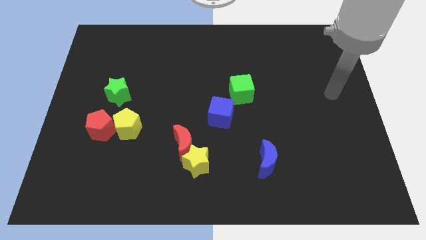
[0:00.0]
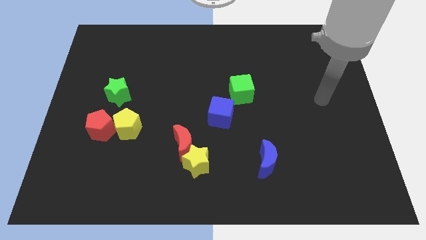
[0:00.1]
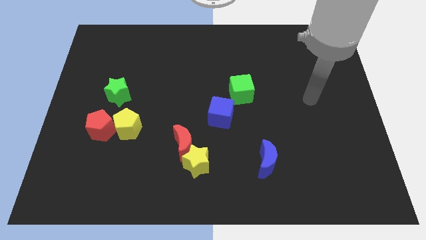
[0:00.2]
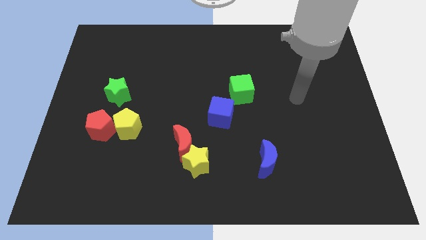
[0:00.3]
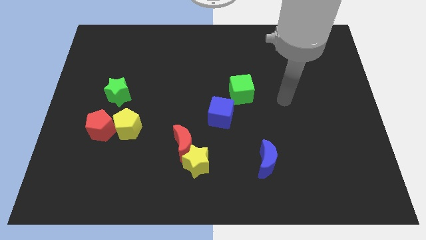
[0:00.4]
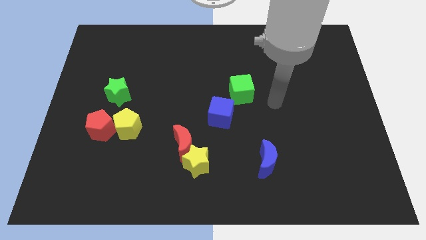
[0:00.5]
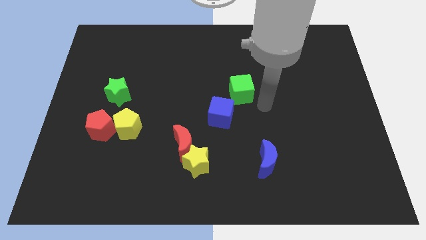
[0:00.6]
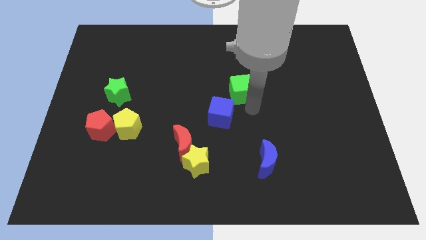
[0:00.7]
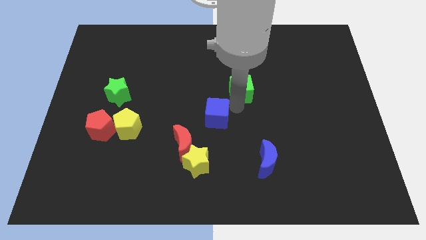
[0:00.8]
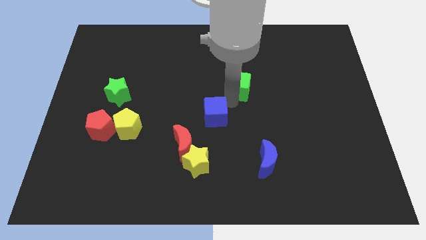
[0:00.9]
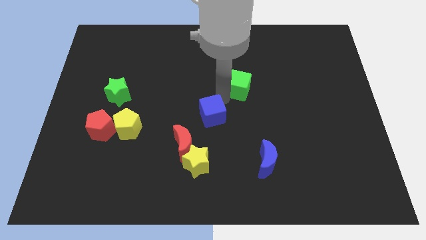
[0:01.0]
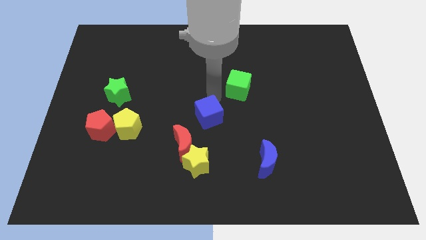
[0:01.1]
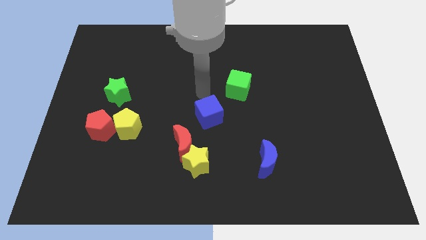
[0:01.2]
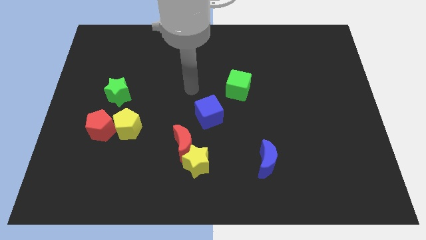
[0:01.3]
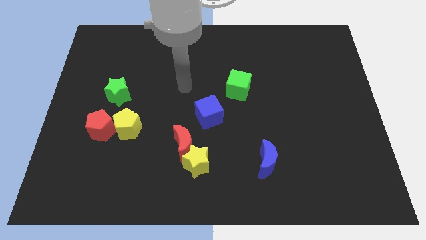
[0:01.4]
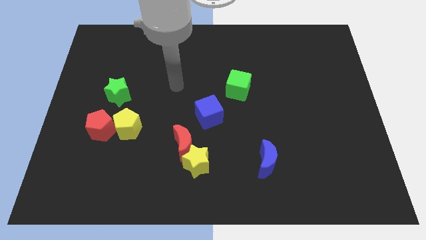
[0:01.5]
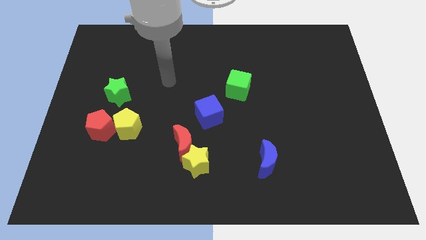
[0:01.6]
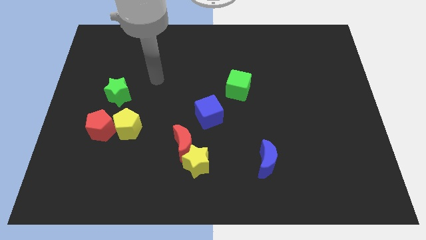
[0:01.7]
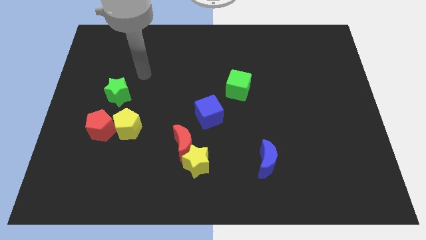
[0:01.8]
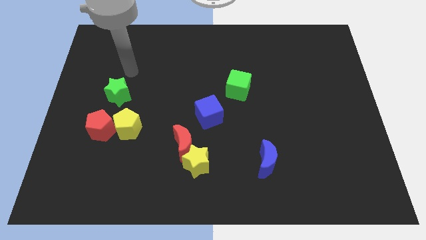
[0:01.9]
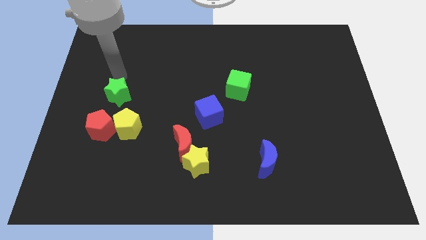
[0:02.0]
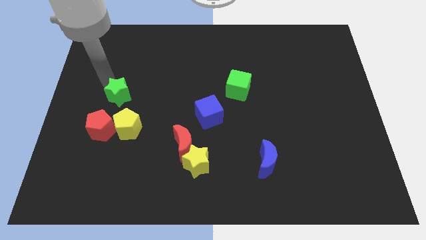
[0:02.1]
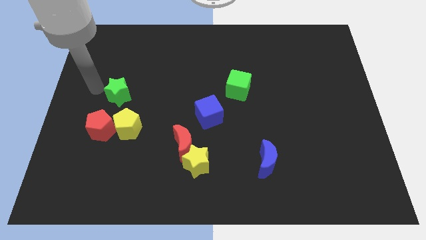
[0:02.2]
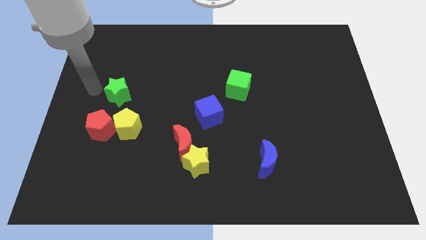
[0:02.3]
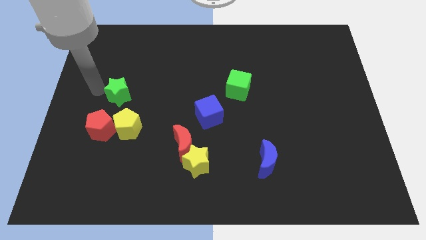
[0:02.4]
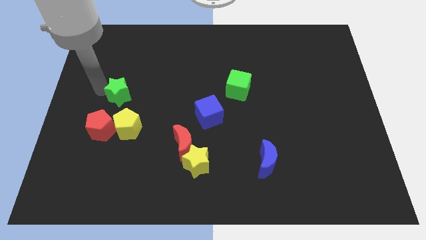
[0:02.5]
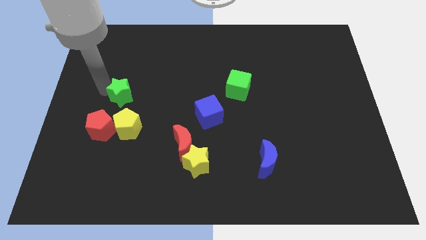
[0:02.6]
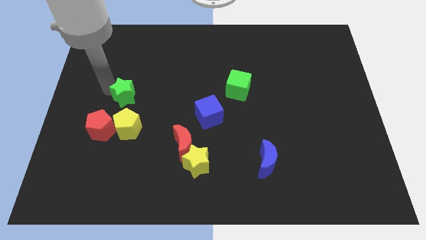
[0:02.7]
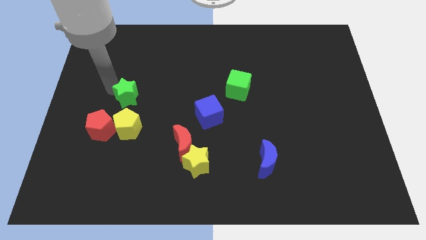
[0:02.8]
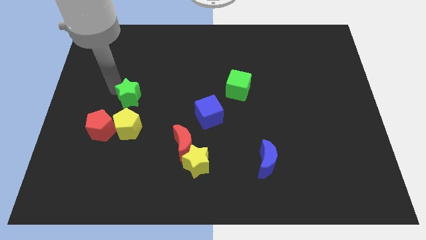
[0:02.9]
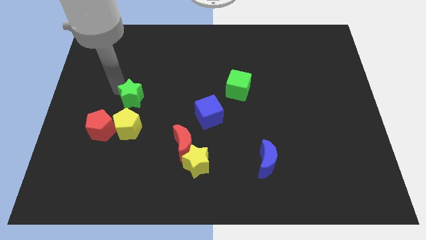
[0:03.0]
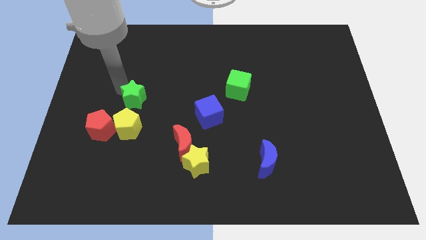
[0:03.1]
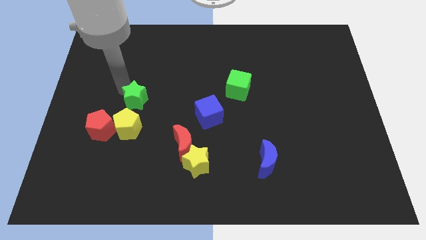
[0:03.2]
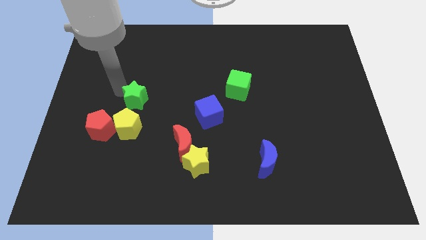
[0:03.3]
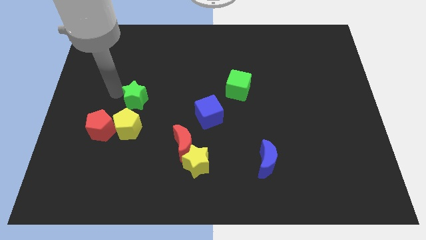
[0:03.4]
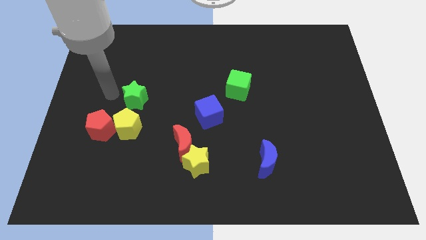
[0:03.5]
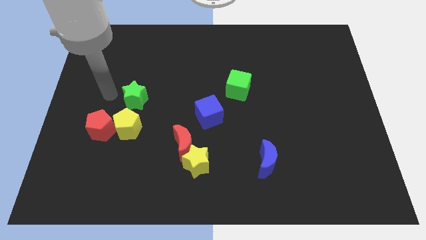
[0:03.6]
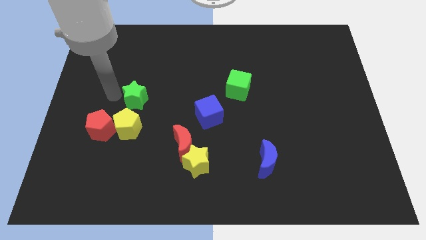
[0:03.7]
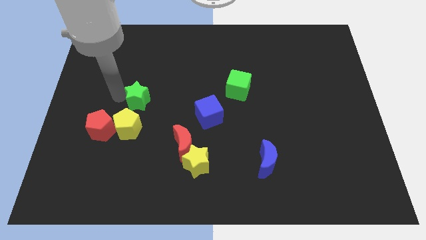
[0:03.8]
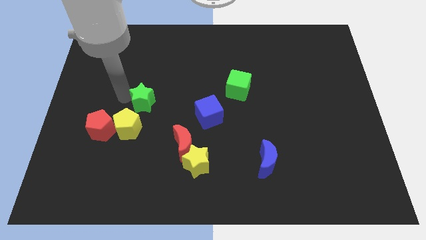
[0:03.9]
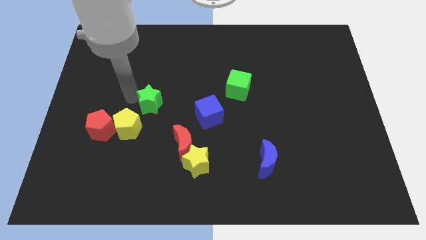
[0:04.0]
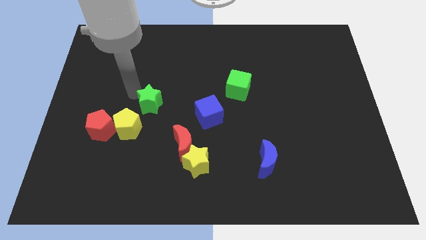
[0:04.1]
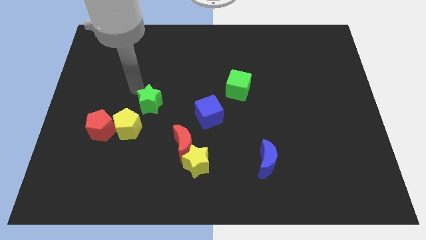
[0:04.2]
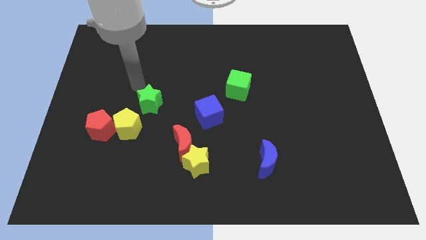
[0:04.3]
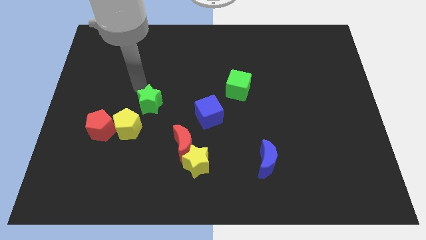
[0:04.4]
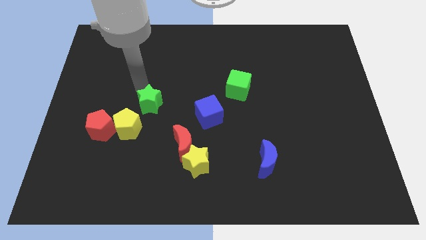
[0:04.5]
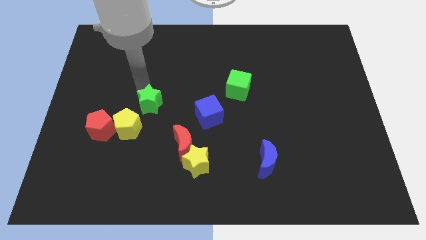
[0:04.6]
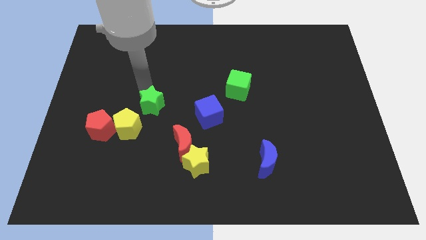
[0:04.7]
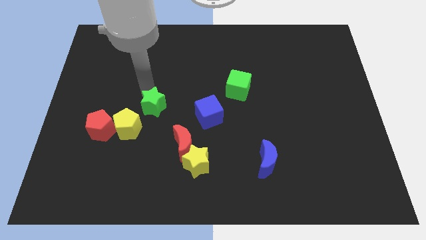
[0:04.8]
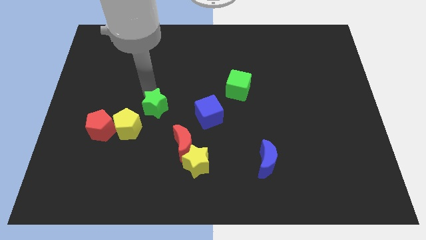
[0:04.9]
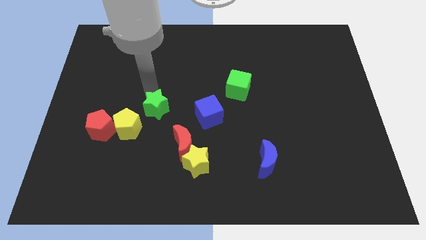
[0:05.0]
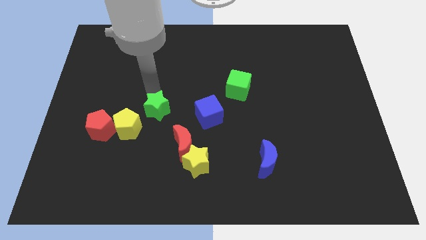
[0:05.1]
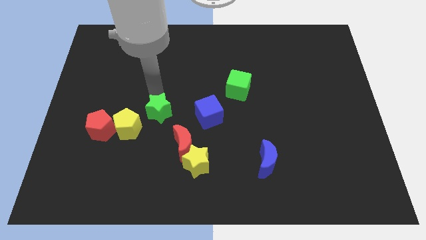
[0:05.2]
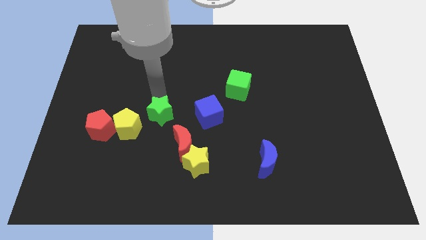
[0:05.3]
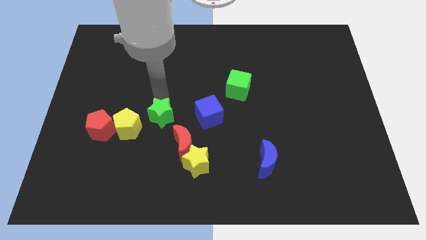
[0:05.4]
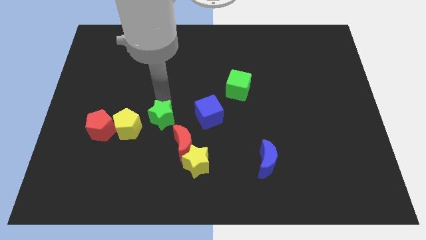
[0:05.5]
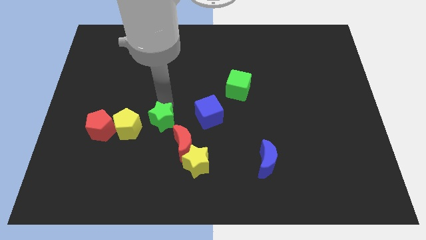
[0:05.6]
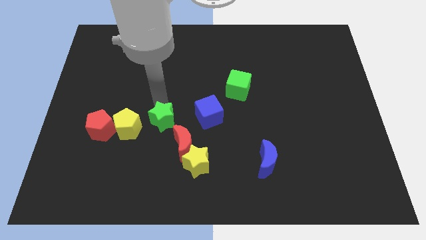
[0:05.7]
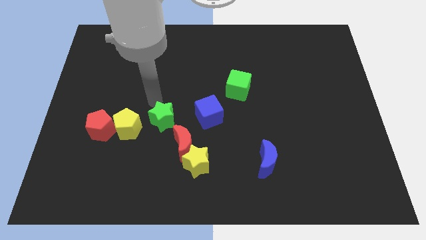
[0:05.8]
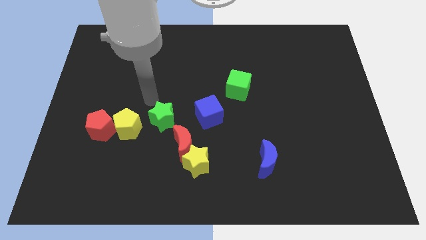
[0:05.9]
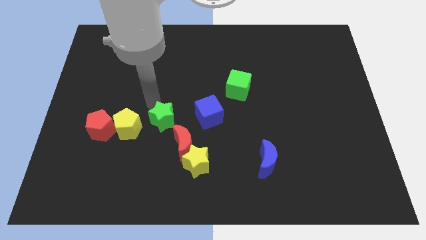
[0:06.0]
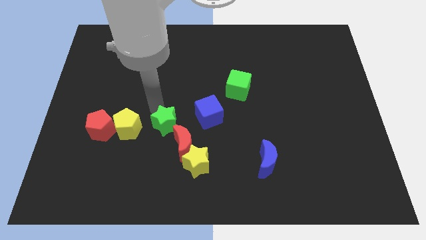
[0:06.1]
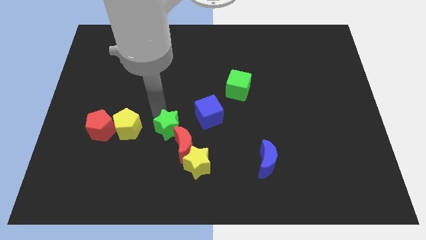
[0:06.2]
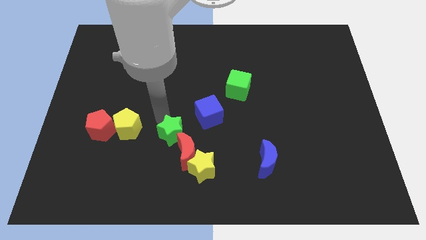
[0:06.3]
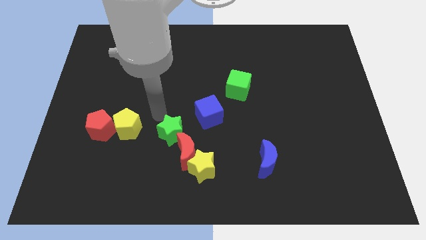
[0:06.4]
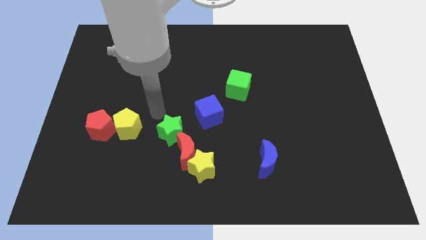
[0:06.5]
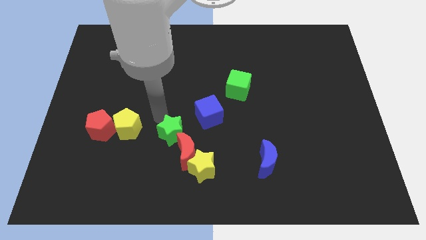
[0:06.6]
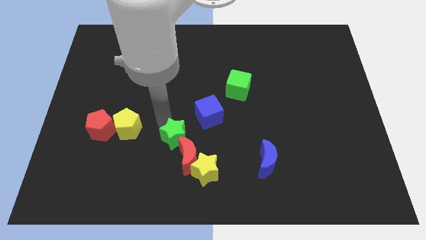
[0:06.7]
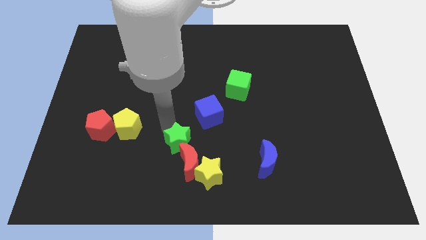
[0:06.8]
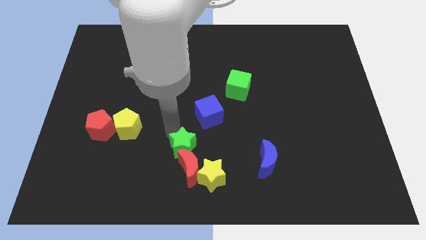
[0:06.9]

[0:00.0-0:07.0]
move the green star next to the red moon

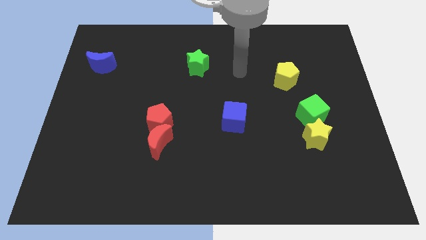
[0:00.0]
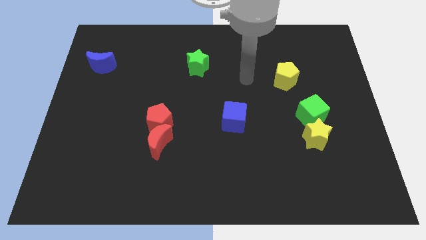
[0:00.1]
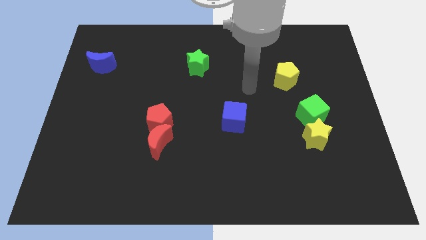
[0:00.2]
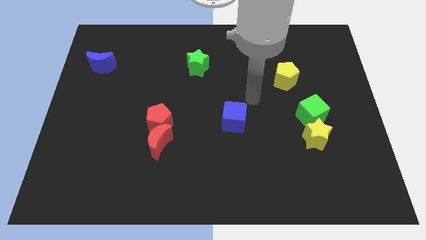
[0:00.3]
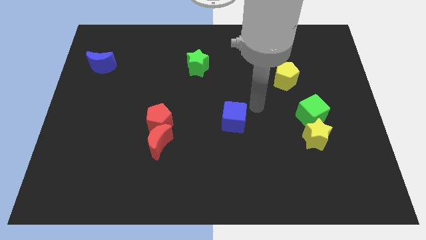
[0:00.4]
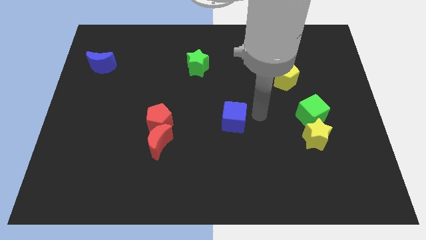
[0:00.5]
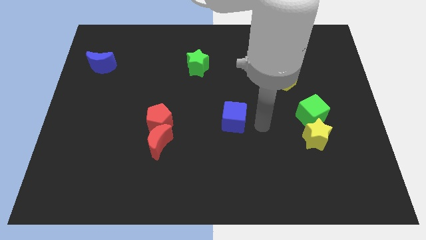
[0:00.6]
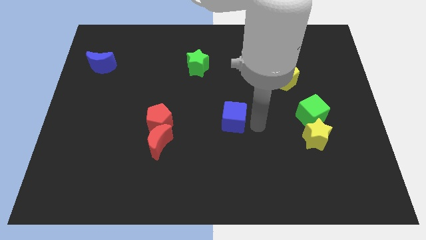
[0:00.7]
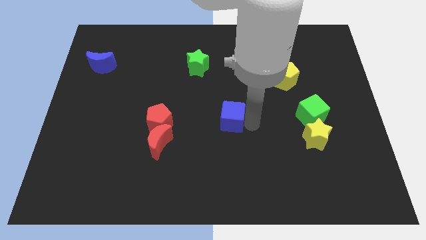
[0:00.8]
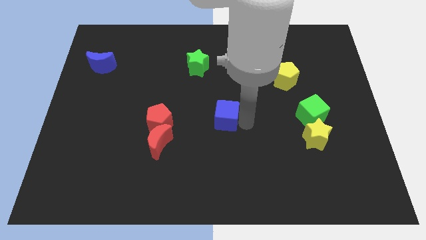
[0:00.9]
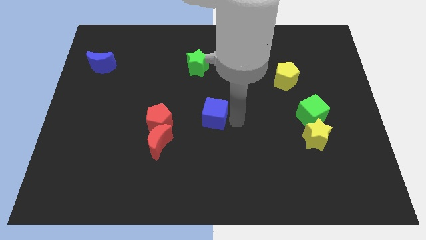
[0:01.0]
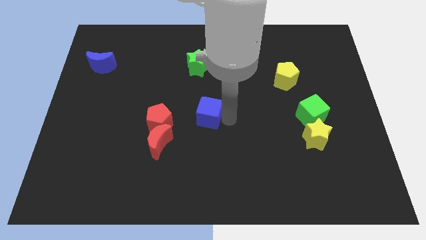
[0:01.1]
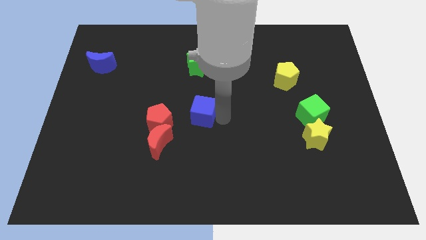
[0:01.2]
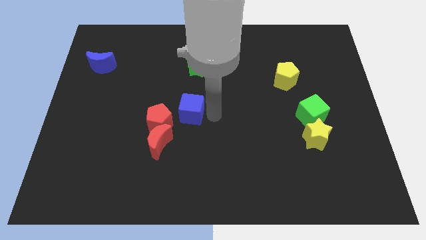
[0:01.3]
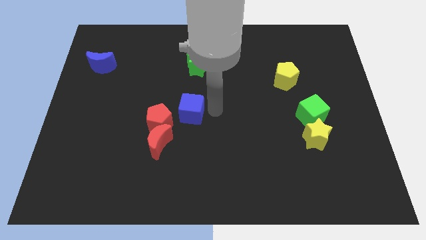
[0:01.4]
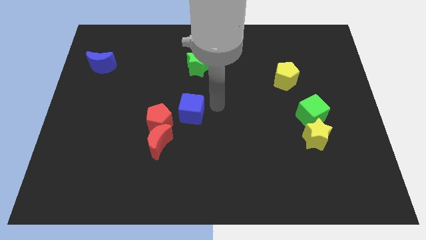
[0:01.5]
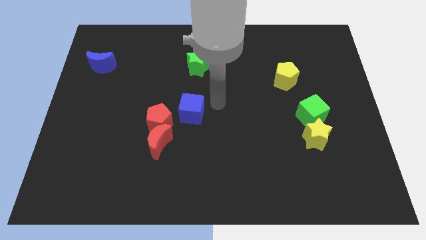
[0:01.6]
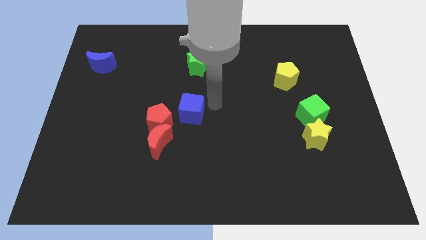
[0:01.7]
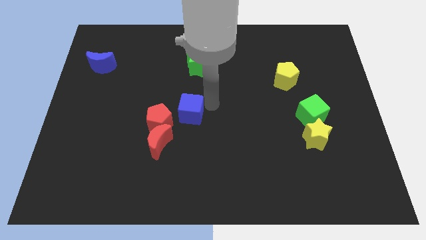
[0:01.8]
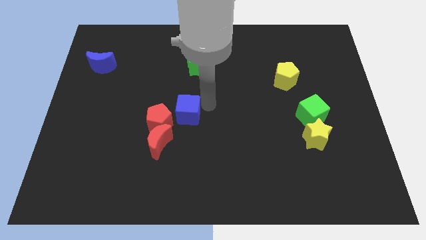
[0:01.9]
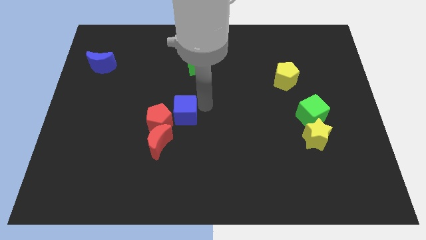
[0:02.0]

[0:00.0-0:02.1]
move the blue cube close to the red pentagon
